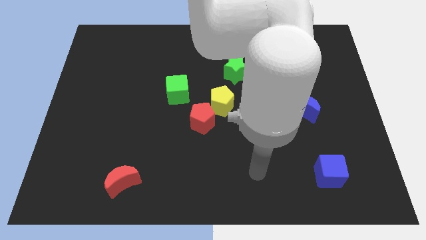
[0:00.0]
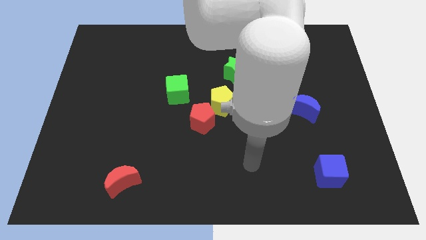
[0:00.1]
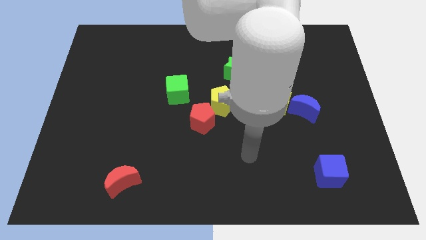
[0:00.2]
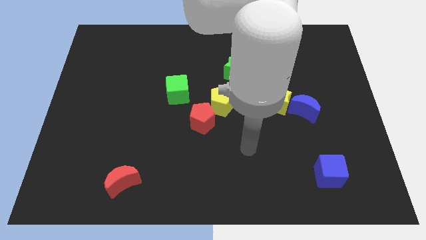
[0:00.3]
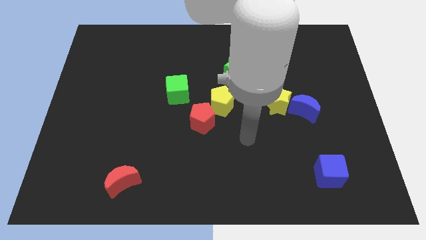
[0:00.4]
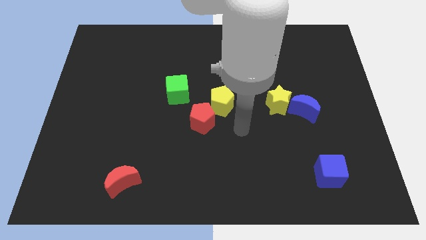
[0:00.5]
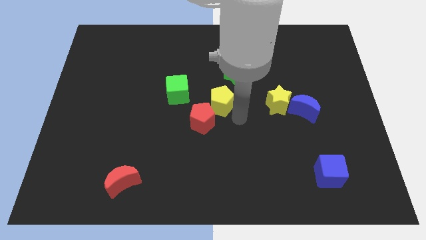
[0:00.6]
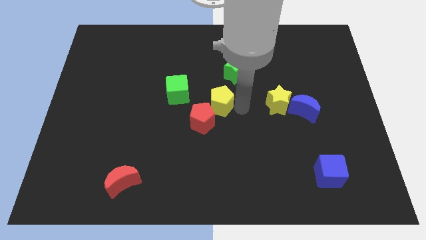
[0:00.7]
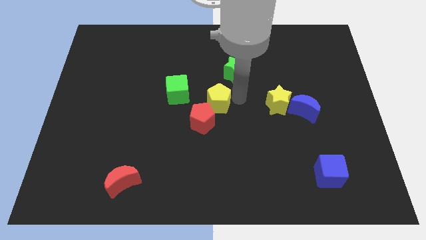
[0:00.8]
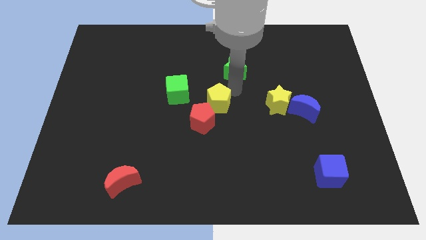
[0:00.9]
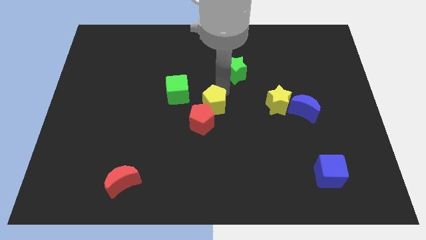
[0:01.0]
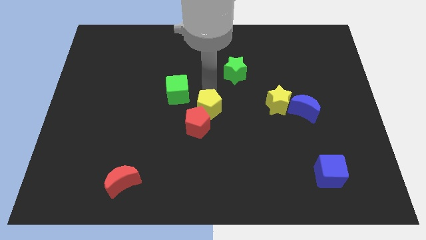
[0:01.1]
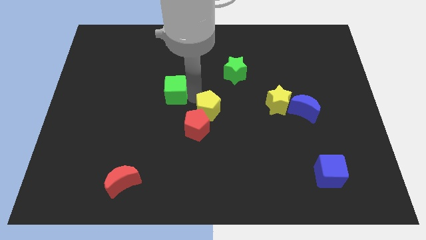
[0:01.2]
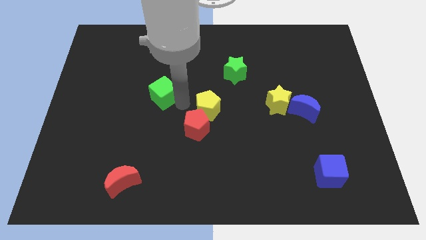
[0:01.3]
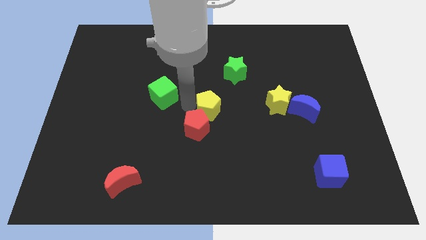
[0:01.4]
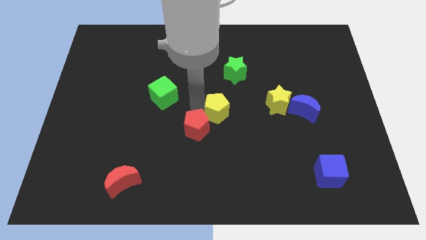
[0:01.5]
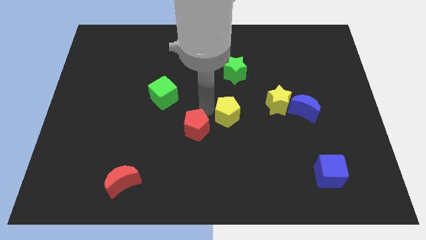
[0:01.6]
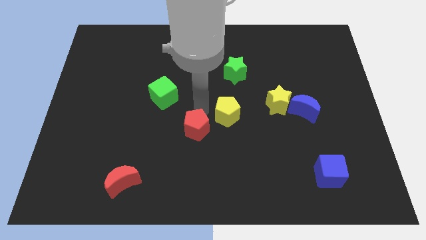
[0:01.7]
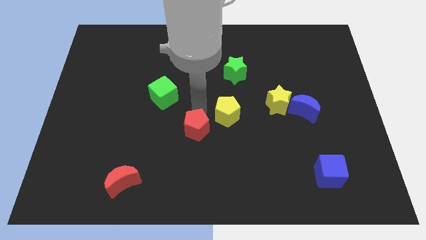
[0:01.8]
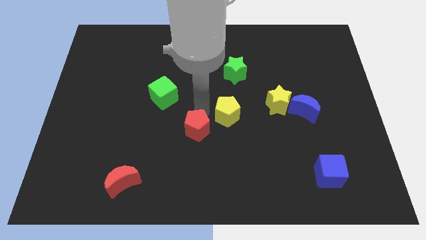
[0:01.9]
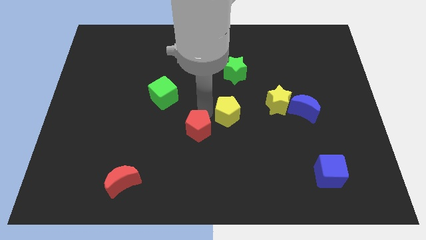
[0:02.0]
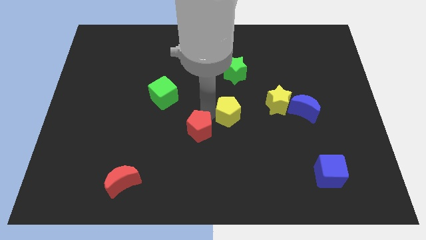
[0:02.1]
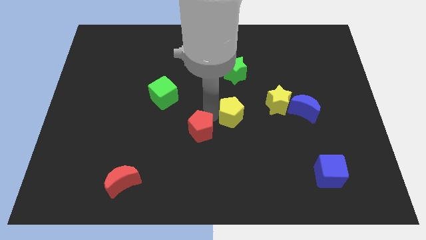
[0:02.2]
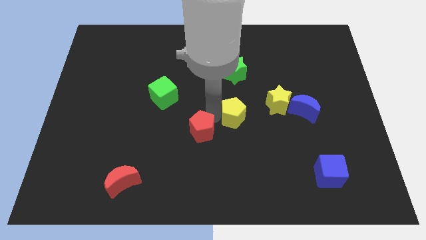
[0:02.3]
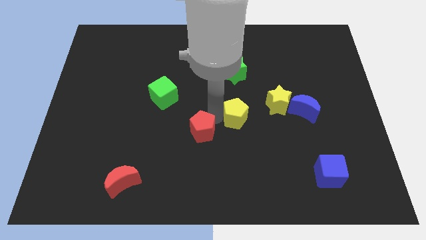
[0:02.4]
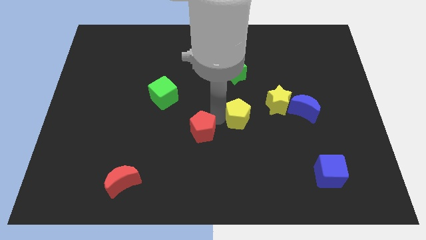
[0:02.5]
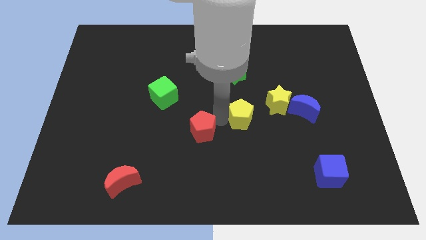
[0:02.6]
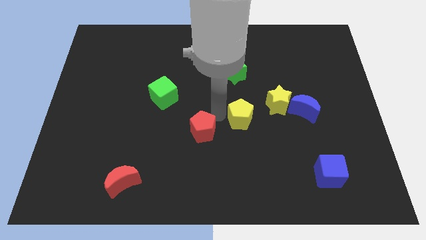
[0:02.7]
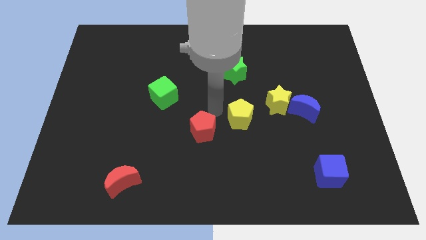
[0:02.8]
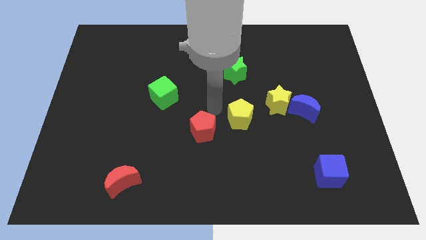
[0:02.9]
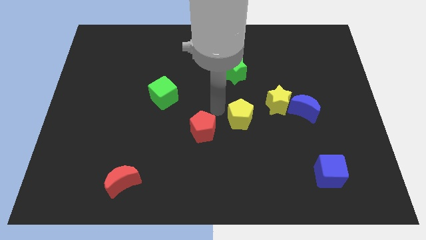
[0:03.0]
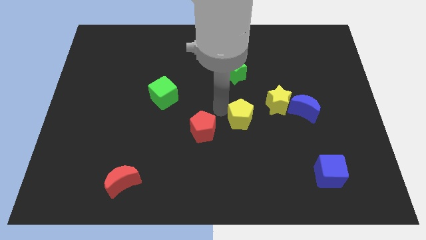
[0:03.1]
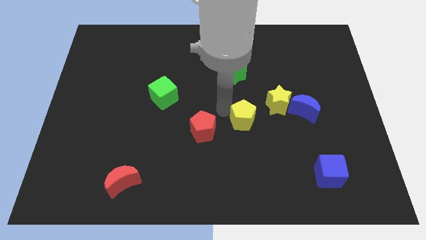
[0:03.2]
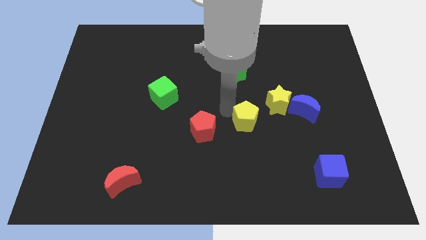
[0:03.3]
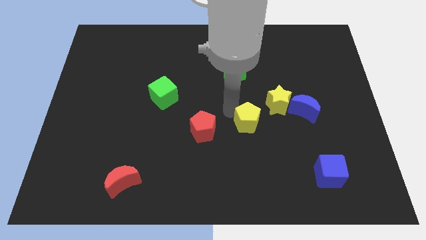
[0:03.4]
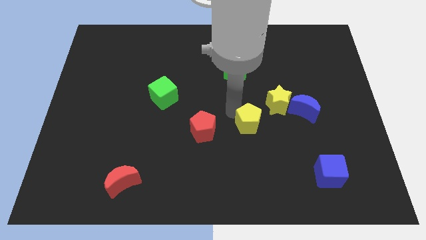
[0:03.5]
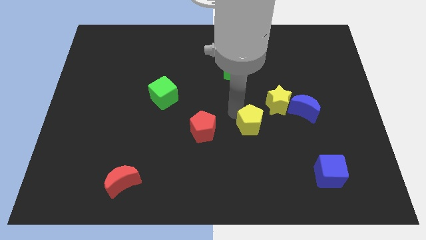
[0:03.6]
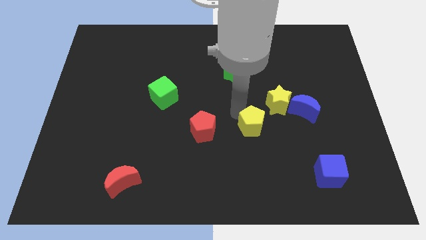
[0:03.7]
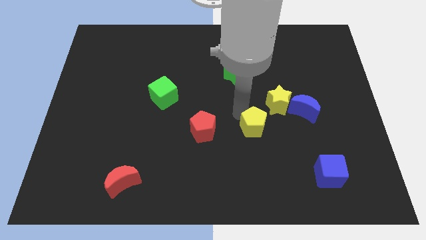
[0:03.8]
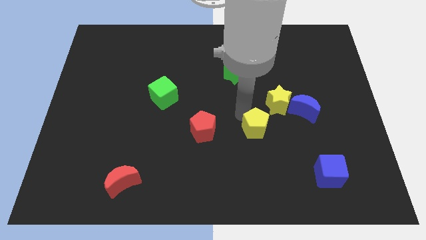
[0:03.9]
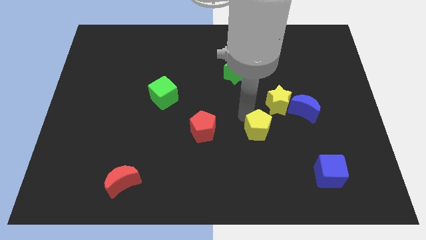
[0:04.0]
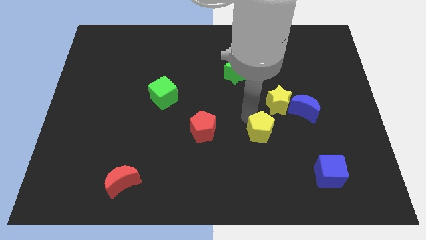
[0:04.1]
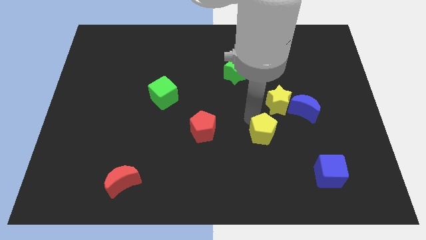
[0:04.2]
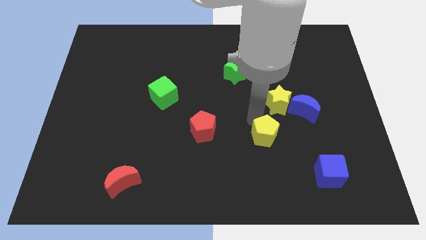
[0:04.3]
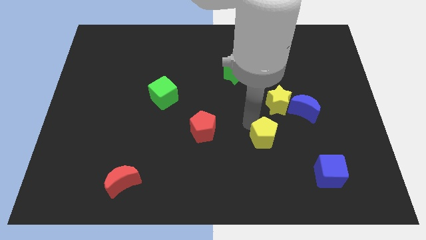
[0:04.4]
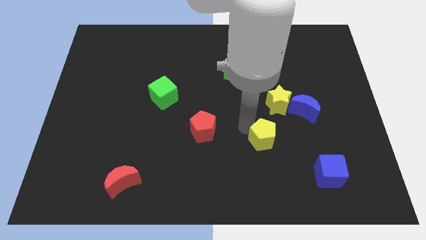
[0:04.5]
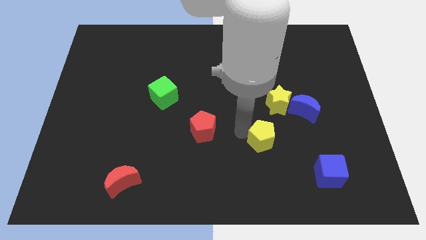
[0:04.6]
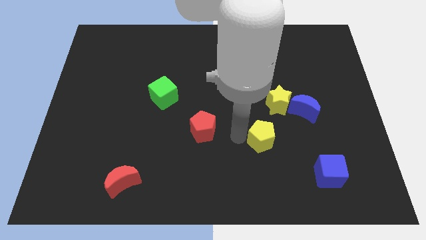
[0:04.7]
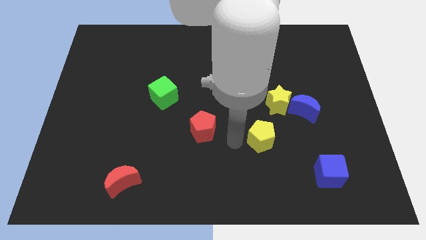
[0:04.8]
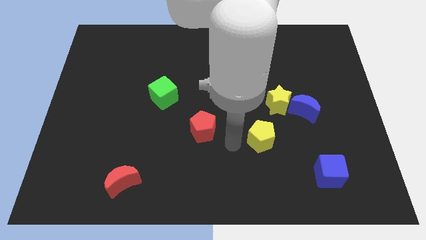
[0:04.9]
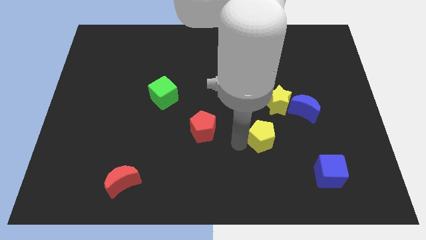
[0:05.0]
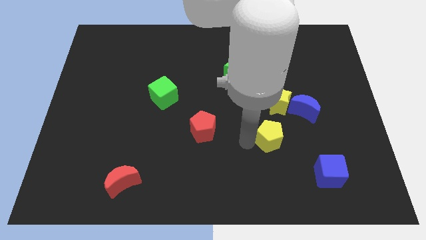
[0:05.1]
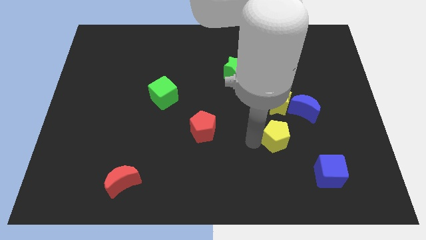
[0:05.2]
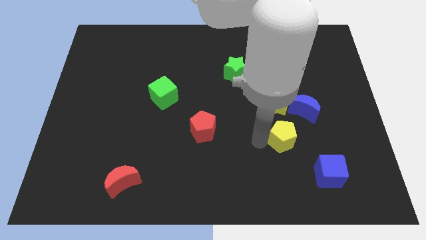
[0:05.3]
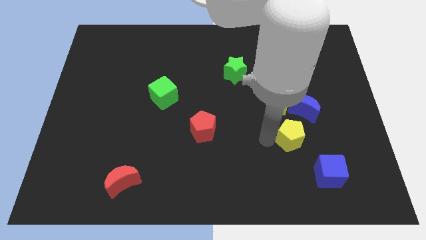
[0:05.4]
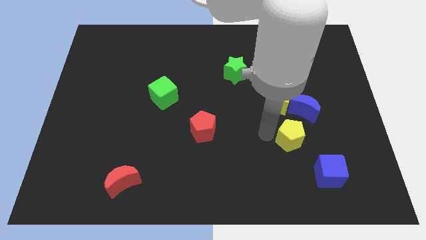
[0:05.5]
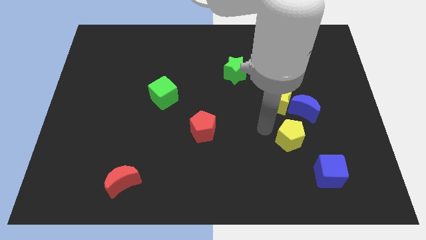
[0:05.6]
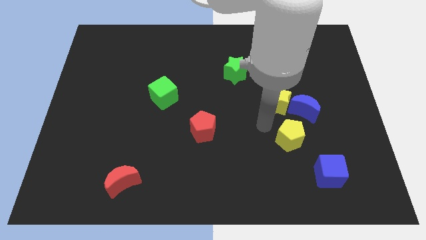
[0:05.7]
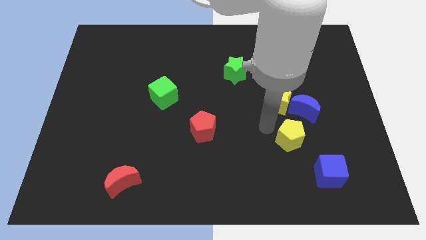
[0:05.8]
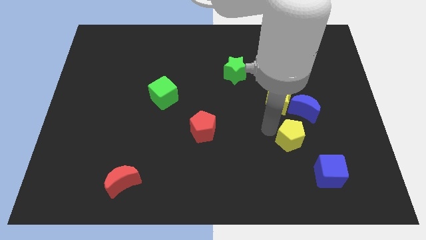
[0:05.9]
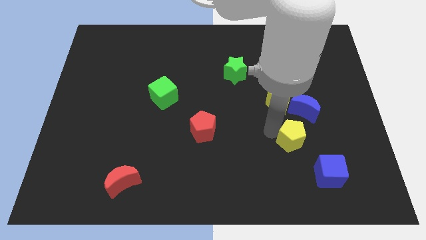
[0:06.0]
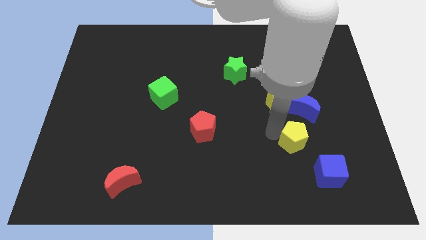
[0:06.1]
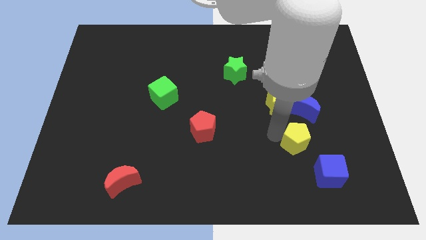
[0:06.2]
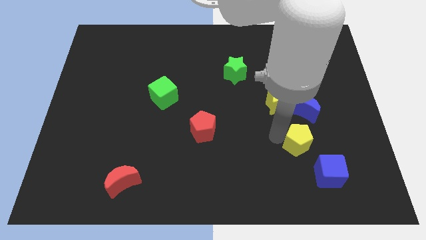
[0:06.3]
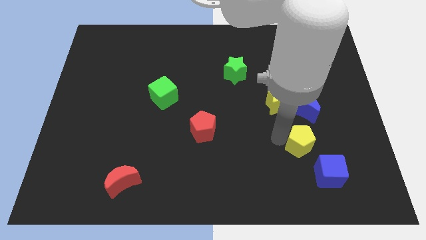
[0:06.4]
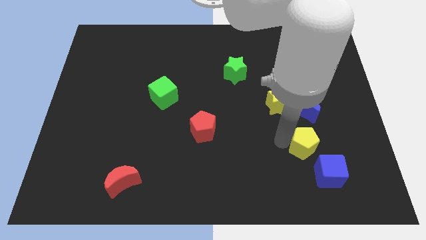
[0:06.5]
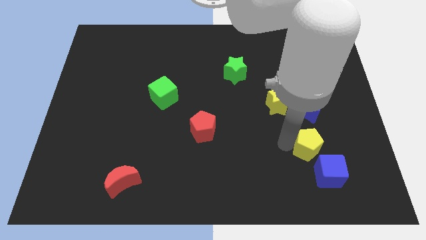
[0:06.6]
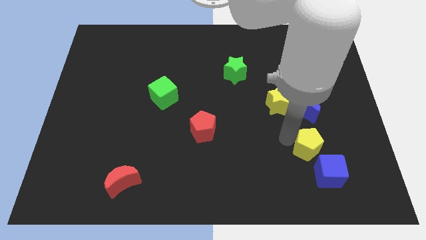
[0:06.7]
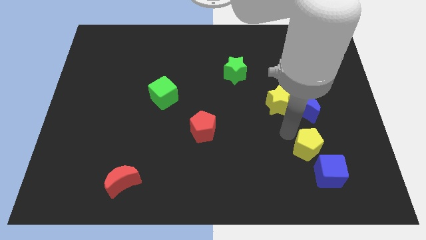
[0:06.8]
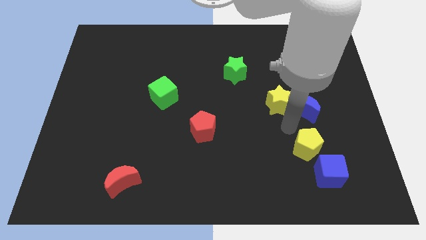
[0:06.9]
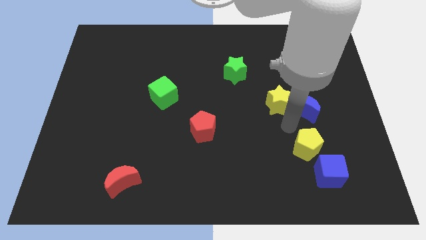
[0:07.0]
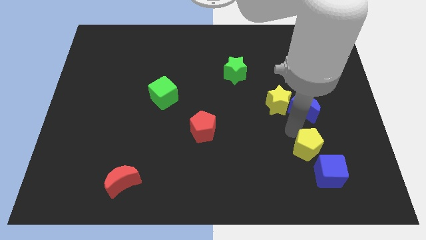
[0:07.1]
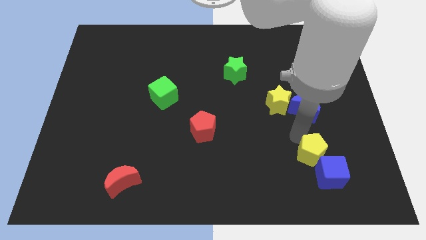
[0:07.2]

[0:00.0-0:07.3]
move the yellow pentagon towards the blue cube
